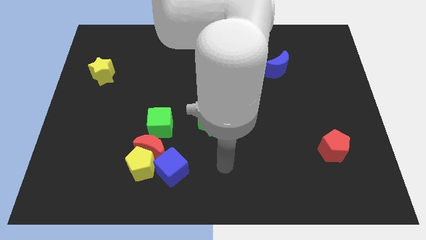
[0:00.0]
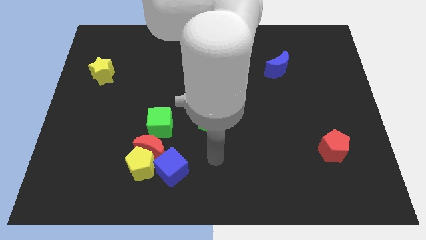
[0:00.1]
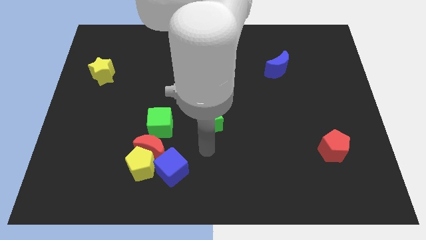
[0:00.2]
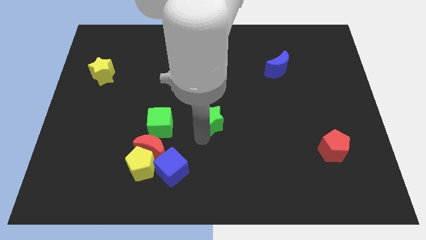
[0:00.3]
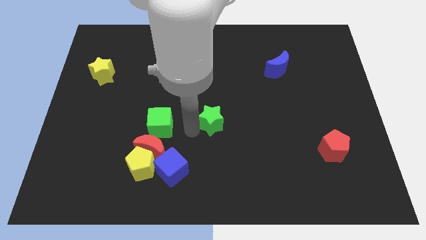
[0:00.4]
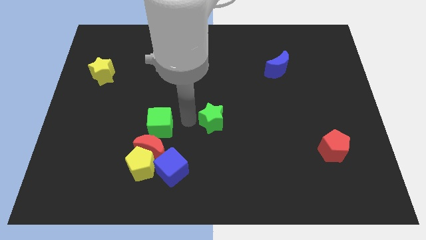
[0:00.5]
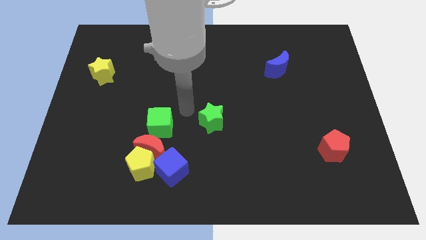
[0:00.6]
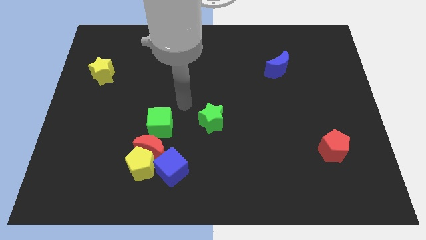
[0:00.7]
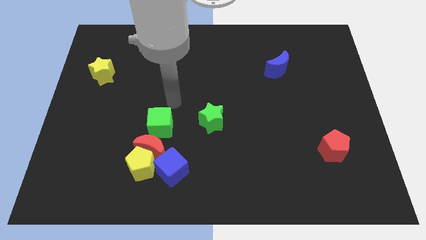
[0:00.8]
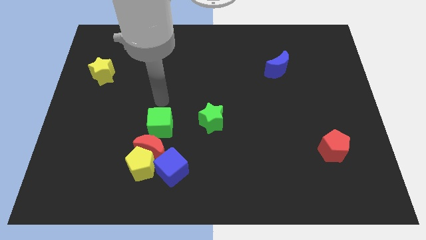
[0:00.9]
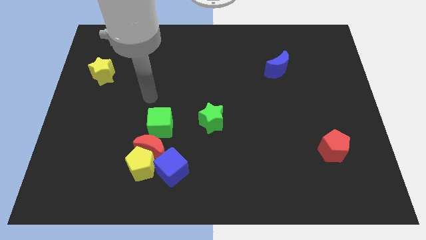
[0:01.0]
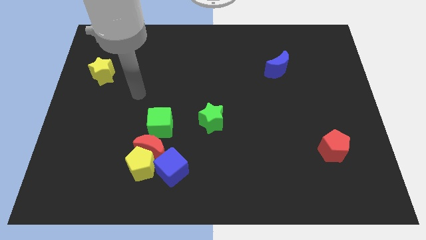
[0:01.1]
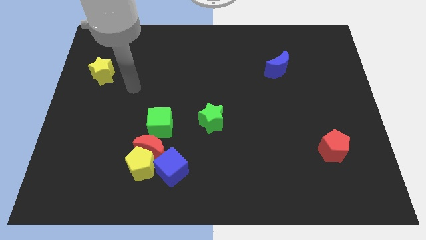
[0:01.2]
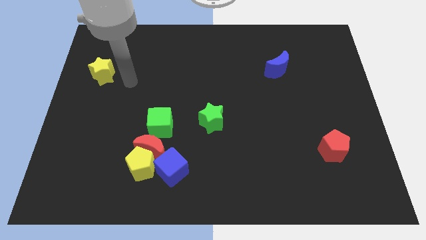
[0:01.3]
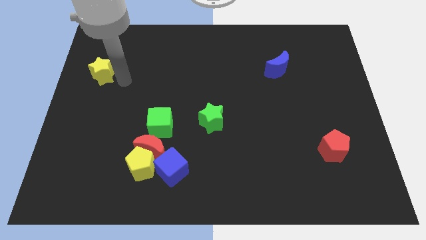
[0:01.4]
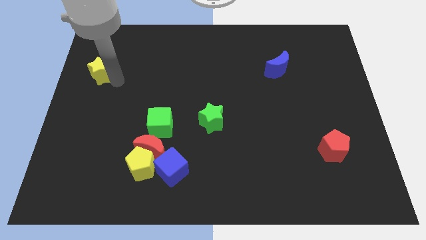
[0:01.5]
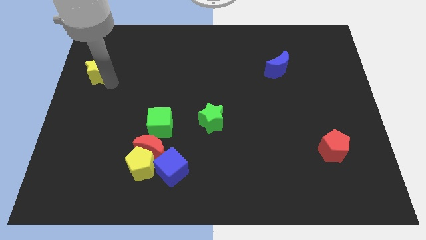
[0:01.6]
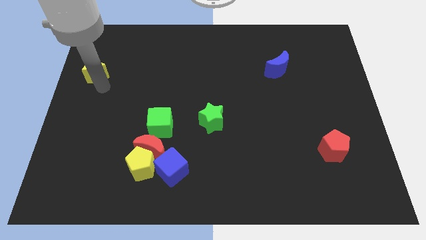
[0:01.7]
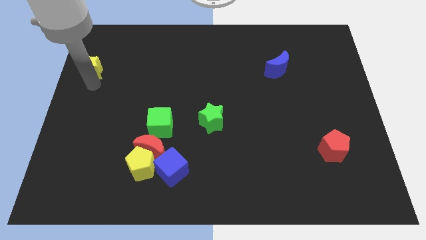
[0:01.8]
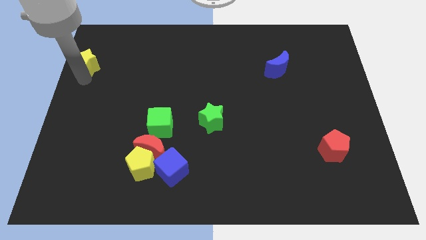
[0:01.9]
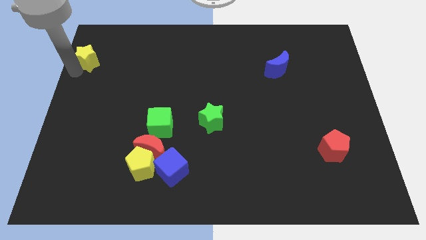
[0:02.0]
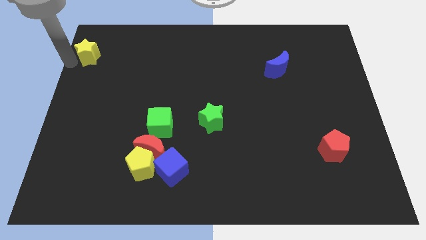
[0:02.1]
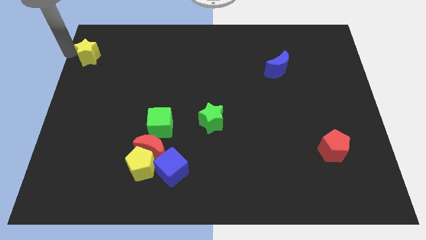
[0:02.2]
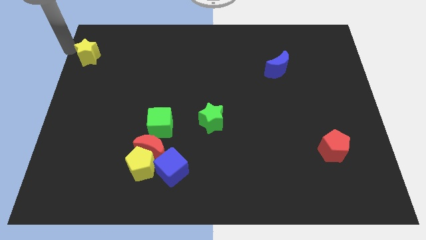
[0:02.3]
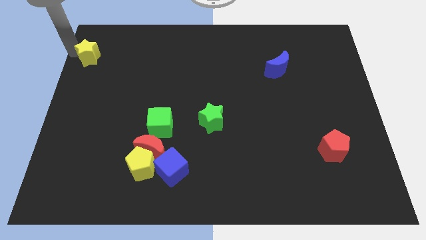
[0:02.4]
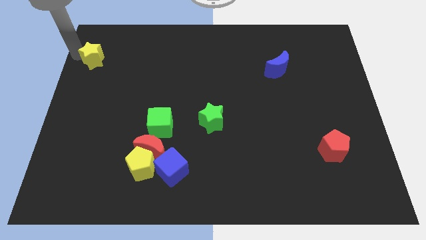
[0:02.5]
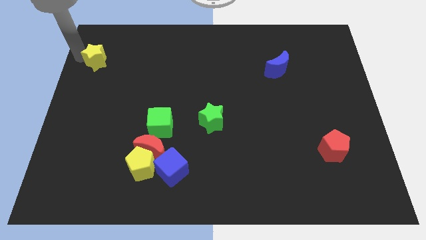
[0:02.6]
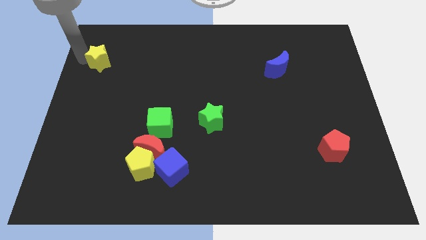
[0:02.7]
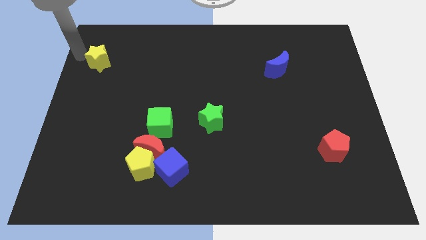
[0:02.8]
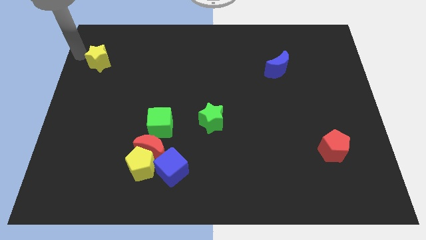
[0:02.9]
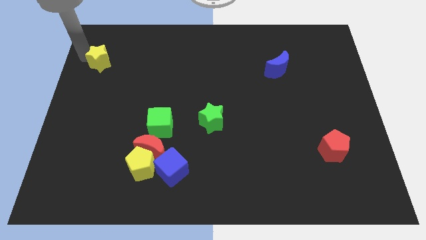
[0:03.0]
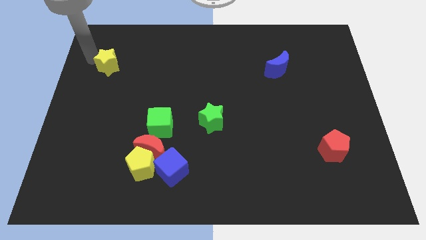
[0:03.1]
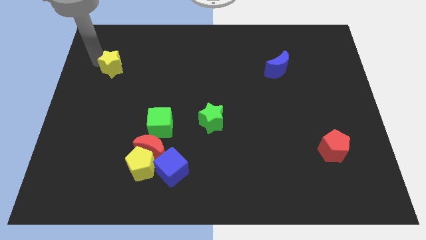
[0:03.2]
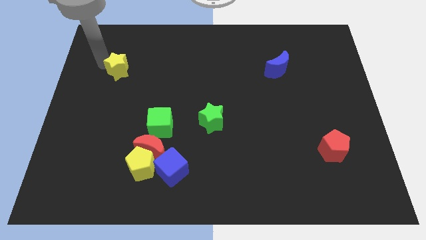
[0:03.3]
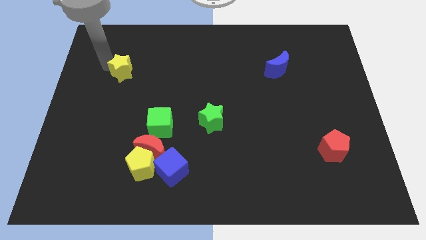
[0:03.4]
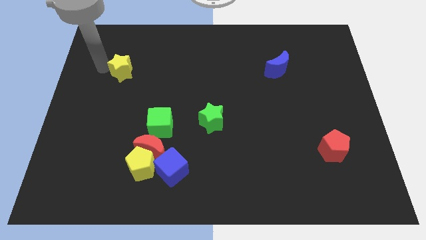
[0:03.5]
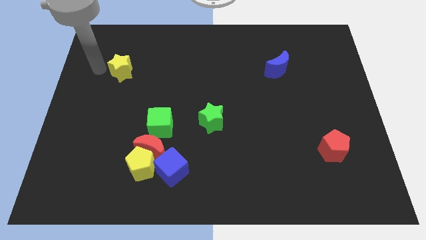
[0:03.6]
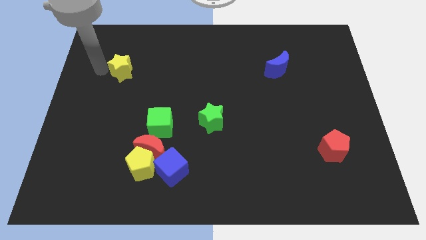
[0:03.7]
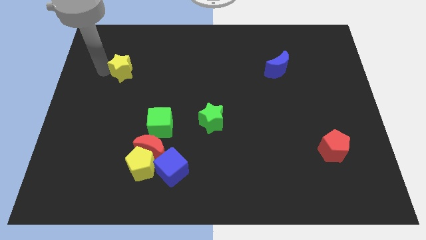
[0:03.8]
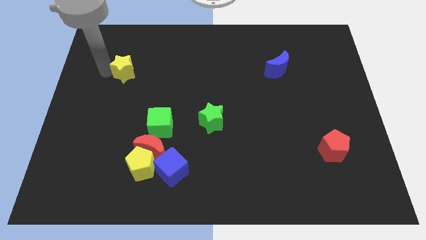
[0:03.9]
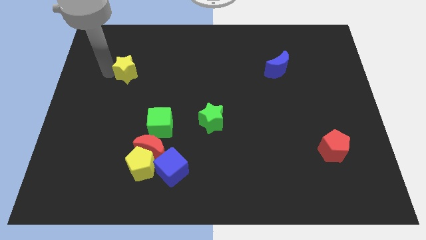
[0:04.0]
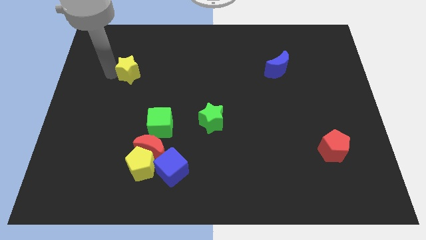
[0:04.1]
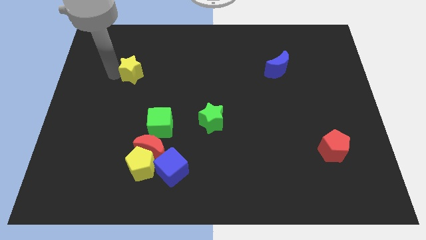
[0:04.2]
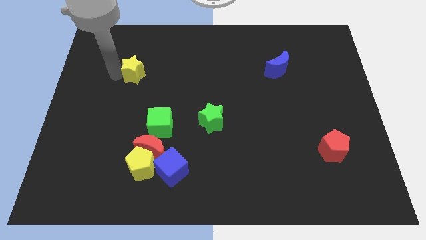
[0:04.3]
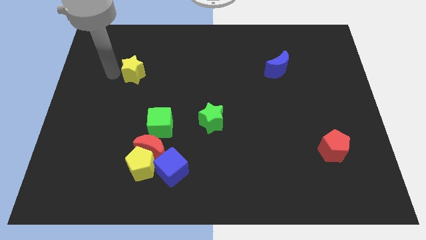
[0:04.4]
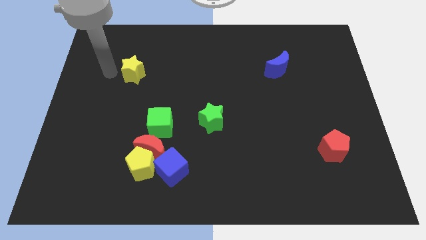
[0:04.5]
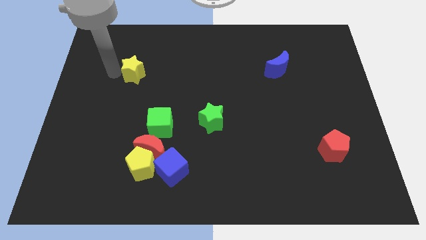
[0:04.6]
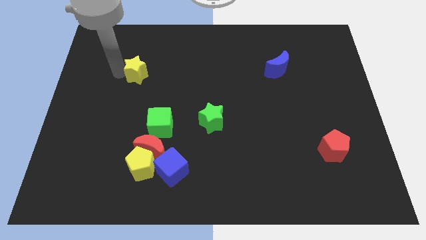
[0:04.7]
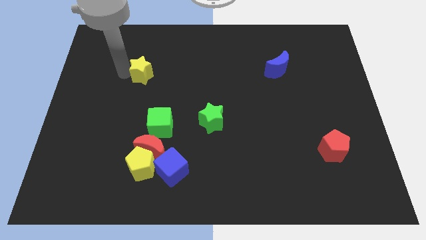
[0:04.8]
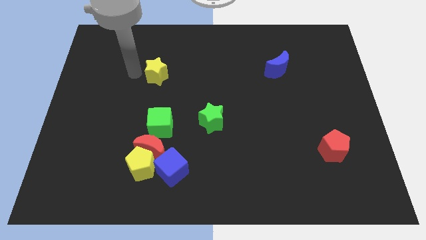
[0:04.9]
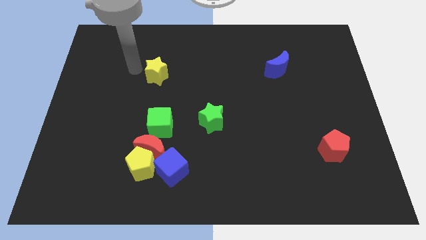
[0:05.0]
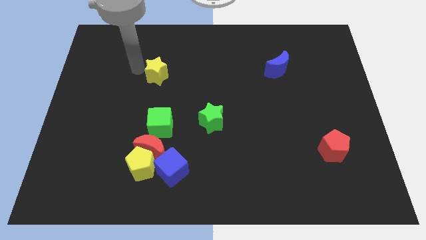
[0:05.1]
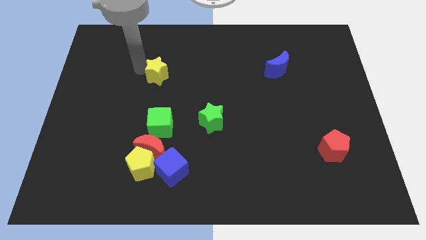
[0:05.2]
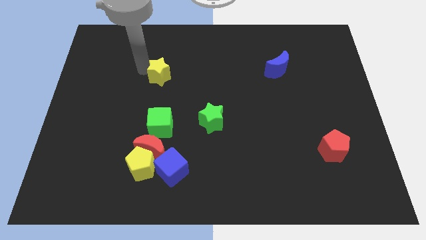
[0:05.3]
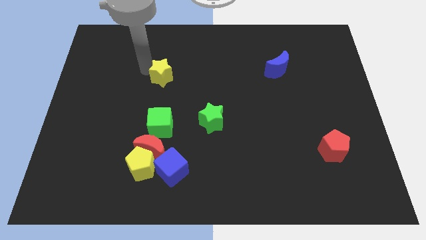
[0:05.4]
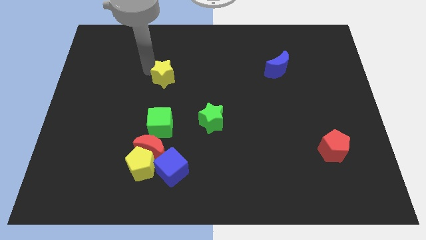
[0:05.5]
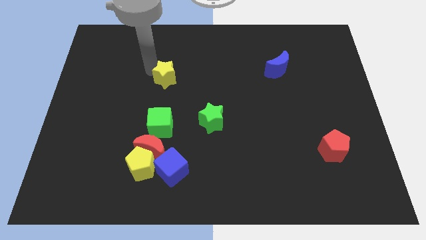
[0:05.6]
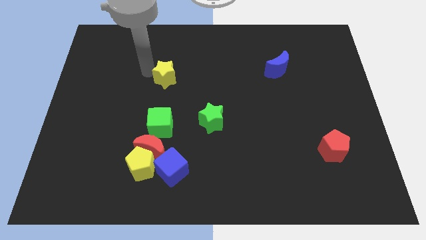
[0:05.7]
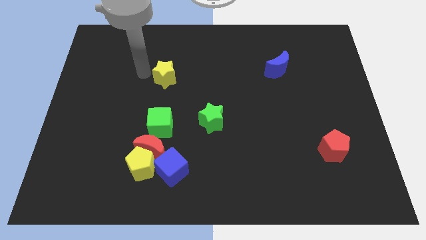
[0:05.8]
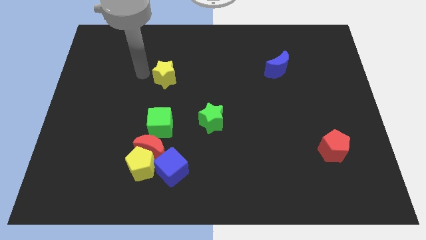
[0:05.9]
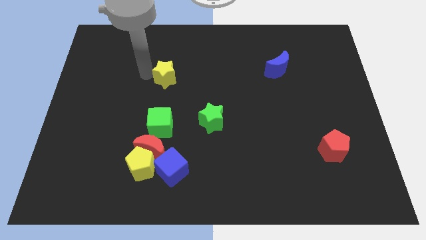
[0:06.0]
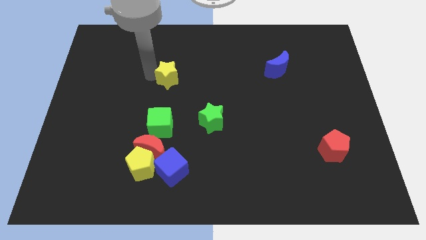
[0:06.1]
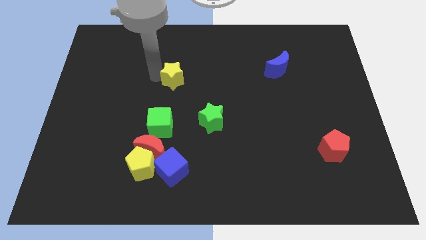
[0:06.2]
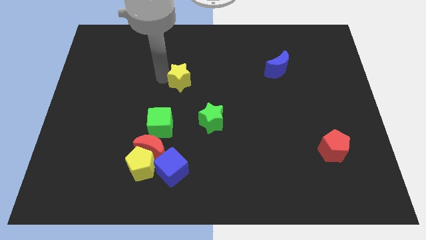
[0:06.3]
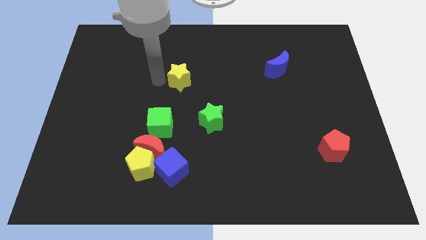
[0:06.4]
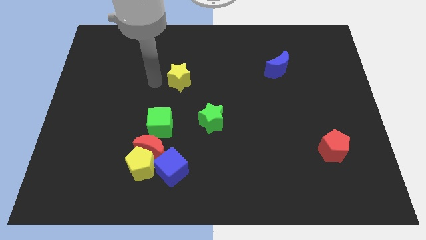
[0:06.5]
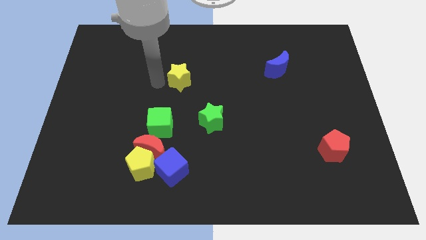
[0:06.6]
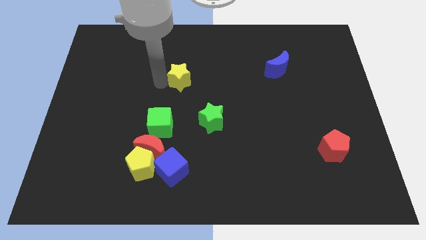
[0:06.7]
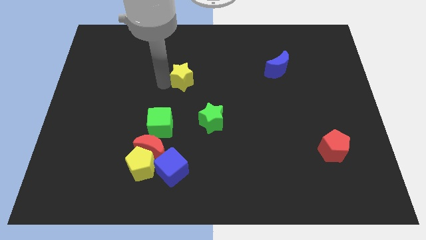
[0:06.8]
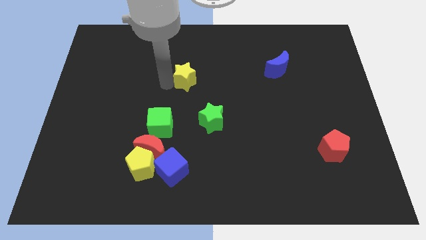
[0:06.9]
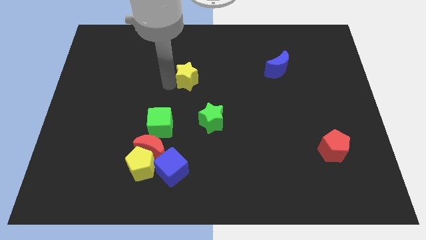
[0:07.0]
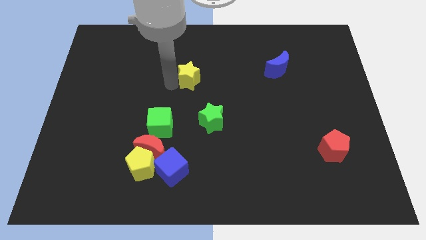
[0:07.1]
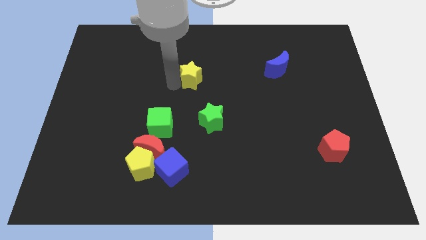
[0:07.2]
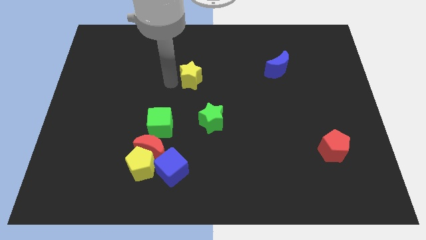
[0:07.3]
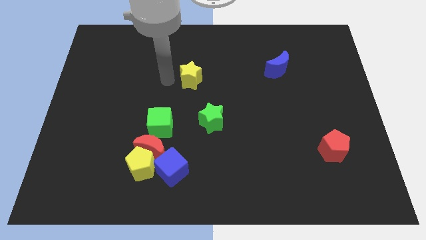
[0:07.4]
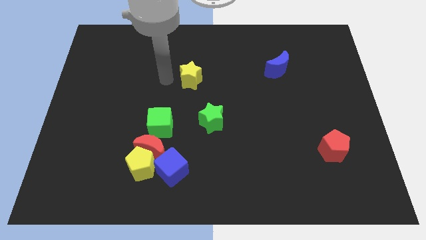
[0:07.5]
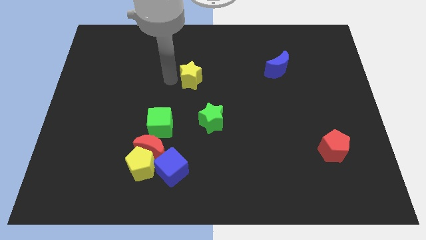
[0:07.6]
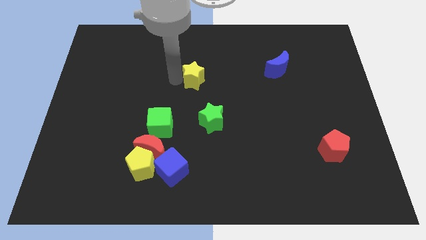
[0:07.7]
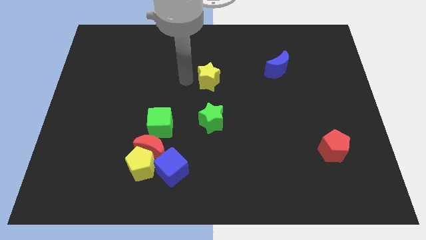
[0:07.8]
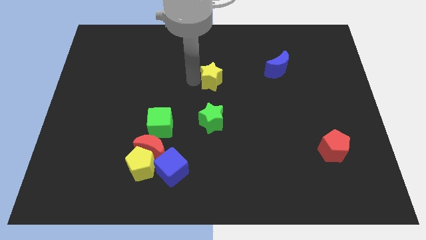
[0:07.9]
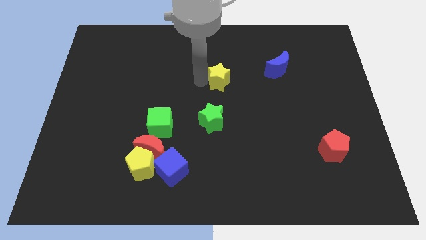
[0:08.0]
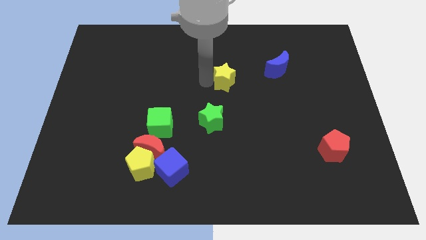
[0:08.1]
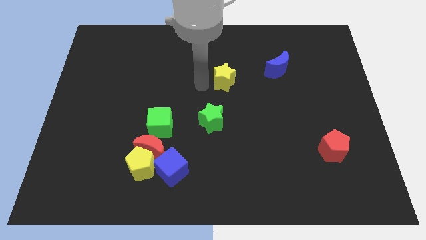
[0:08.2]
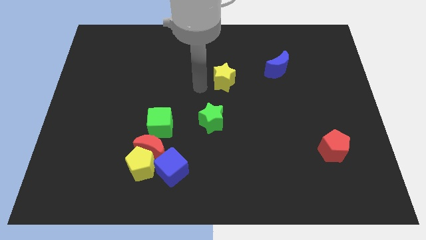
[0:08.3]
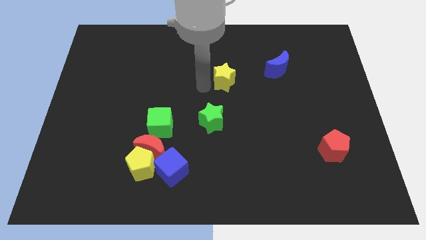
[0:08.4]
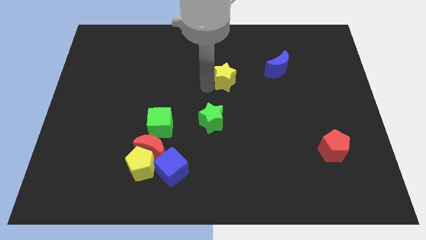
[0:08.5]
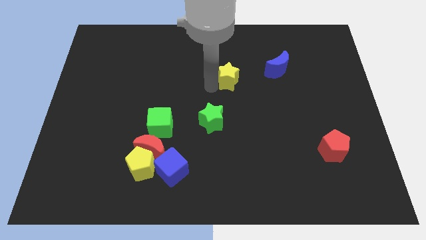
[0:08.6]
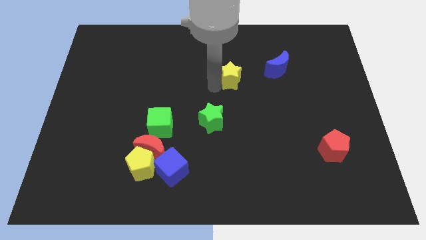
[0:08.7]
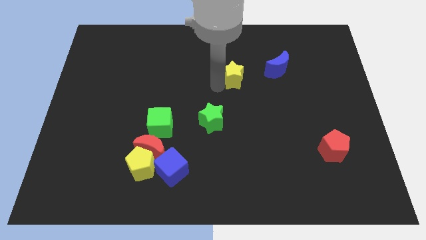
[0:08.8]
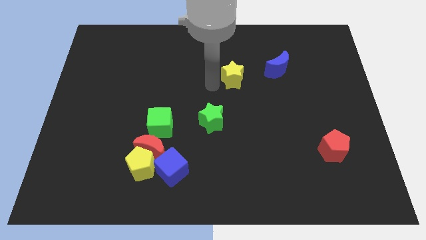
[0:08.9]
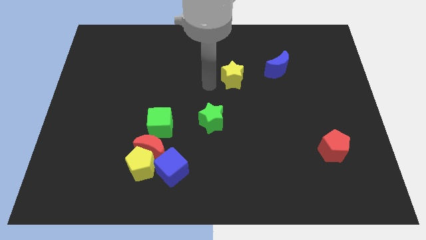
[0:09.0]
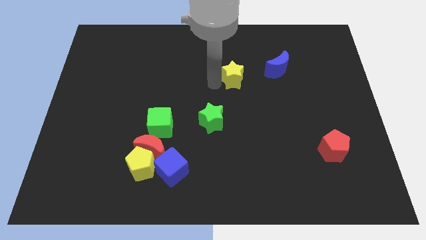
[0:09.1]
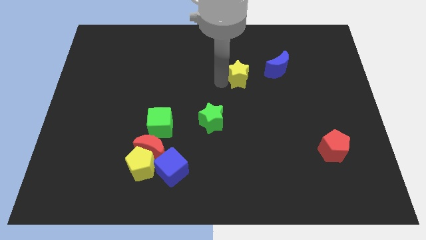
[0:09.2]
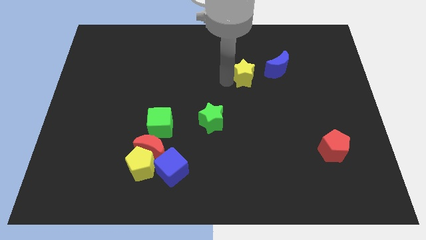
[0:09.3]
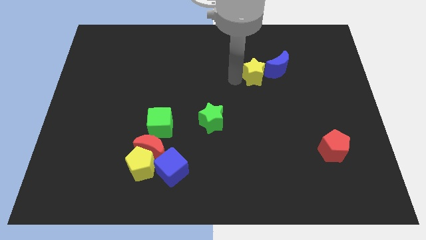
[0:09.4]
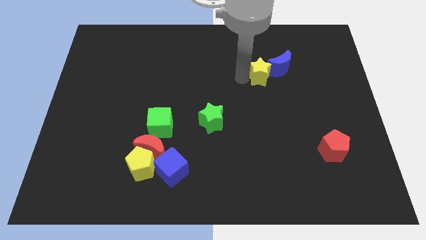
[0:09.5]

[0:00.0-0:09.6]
put the yellow star next to the blue moon
